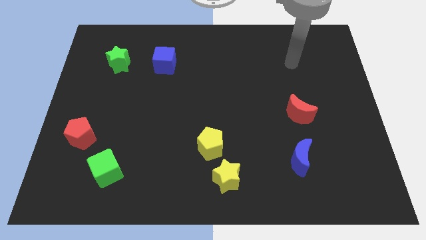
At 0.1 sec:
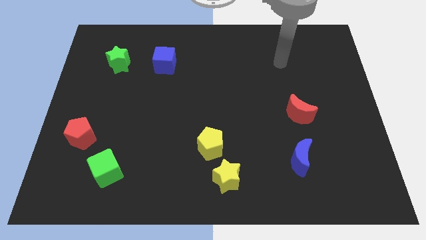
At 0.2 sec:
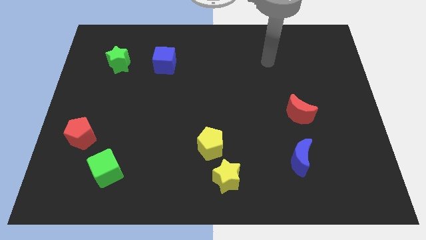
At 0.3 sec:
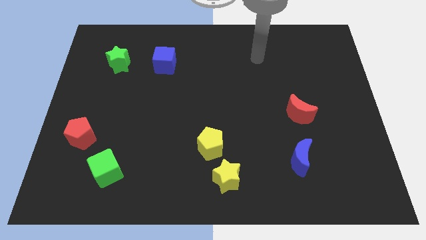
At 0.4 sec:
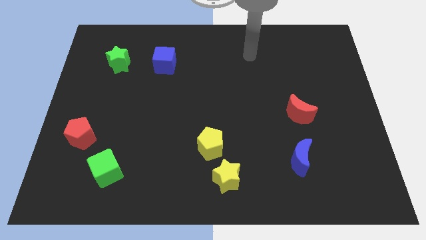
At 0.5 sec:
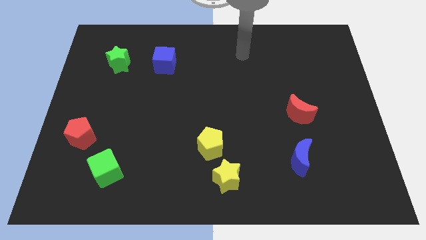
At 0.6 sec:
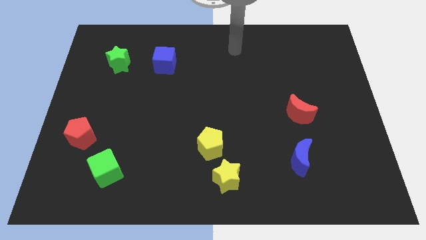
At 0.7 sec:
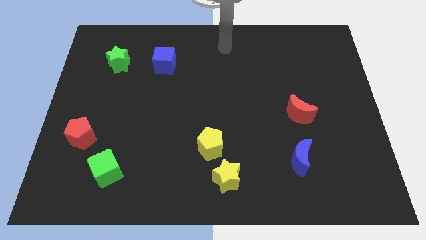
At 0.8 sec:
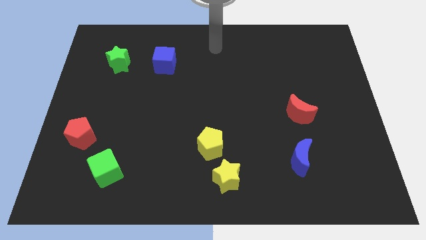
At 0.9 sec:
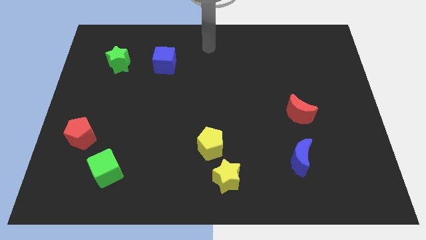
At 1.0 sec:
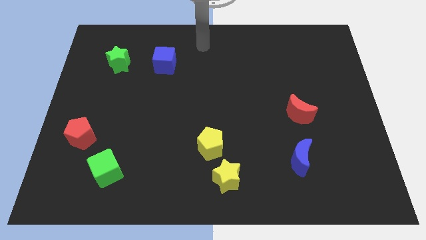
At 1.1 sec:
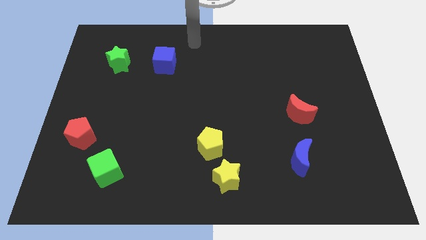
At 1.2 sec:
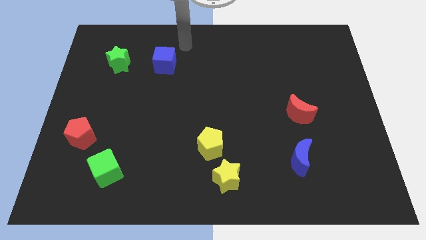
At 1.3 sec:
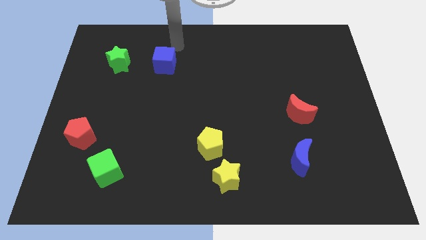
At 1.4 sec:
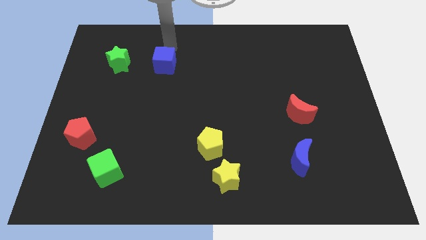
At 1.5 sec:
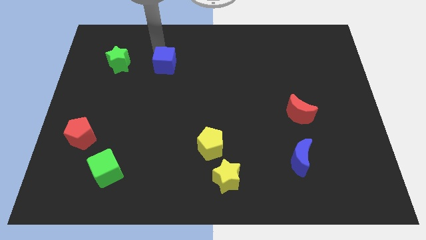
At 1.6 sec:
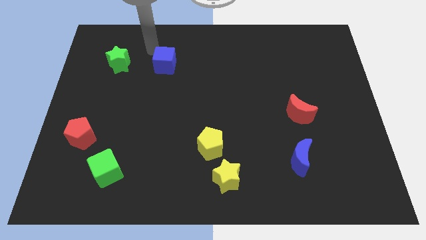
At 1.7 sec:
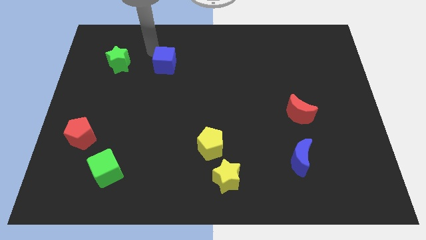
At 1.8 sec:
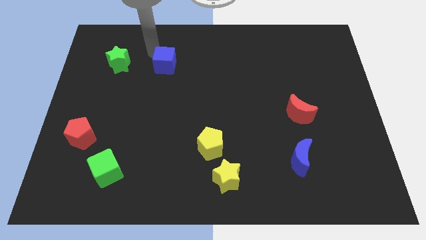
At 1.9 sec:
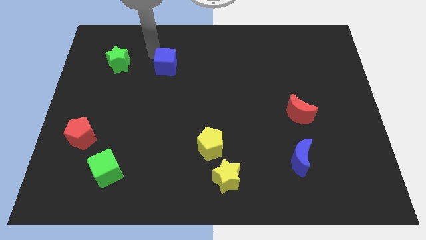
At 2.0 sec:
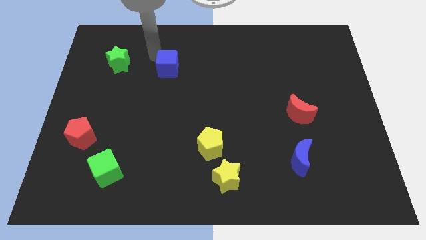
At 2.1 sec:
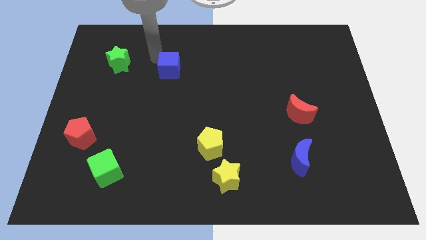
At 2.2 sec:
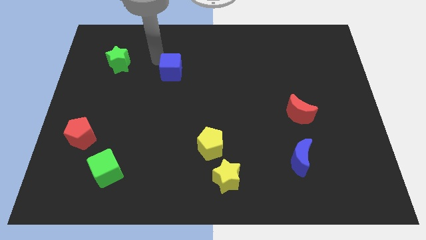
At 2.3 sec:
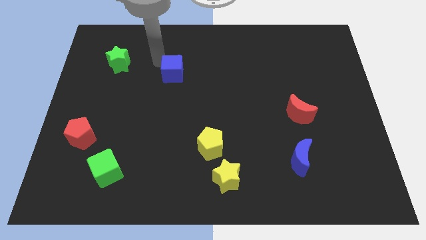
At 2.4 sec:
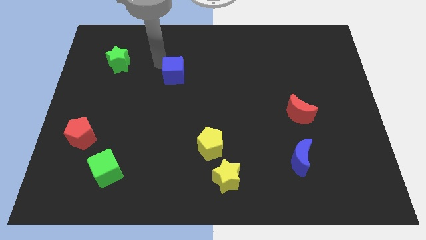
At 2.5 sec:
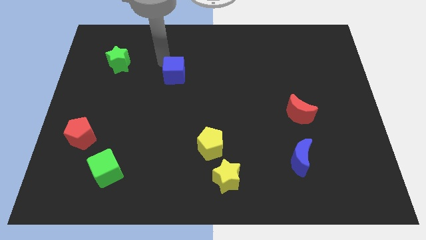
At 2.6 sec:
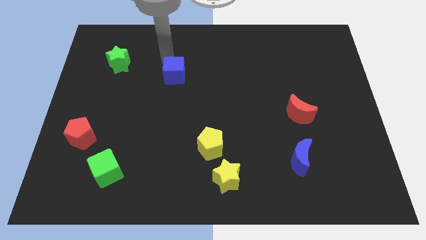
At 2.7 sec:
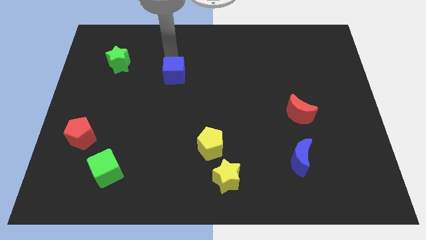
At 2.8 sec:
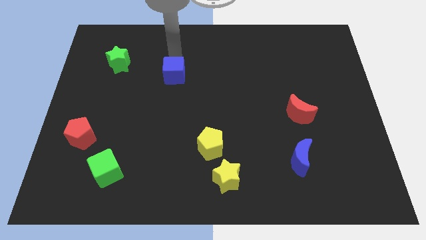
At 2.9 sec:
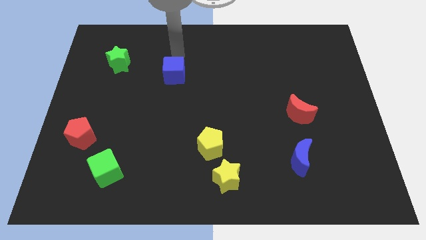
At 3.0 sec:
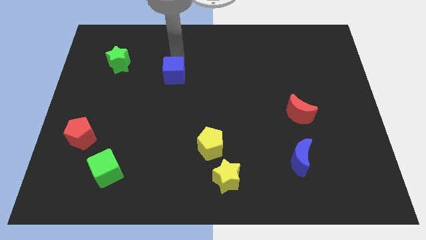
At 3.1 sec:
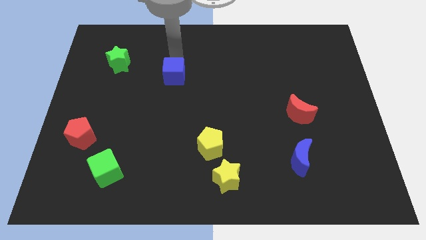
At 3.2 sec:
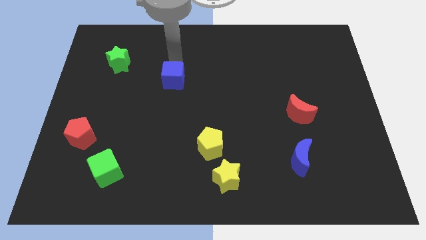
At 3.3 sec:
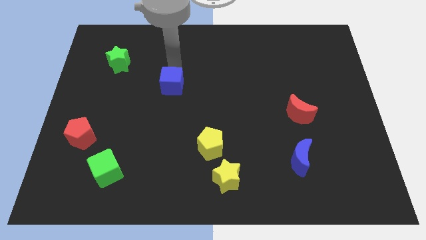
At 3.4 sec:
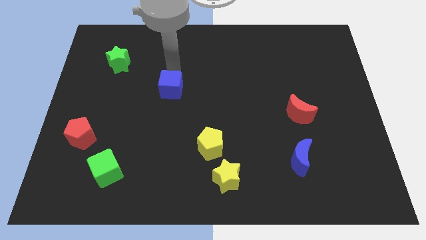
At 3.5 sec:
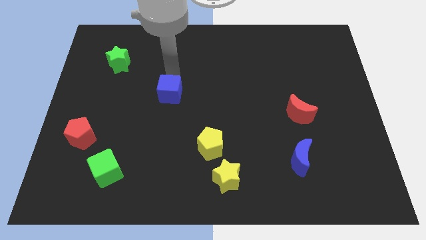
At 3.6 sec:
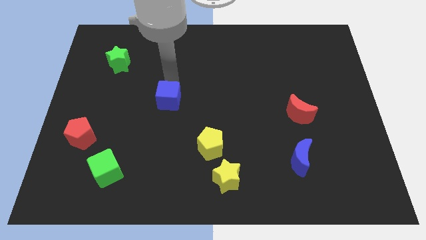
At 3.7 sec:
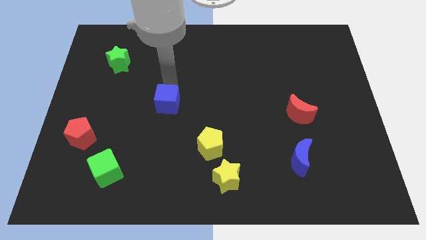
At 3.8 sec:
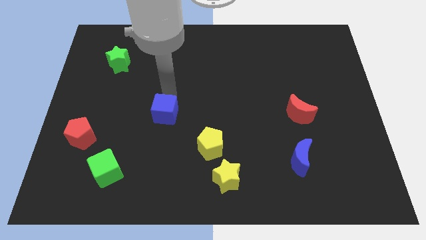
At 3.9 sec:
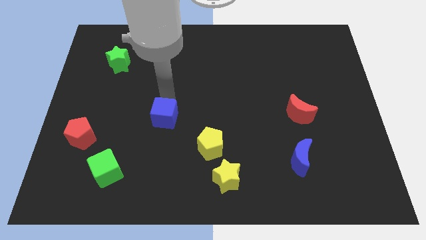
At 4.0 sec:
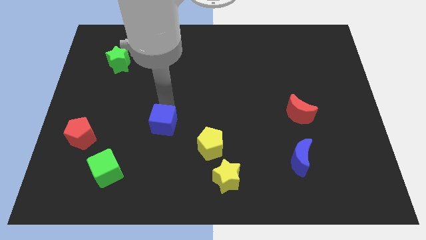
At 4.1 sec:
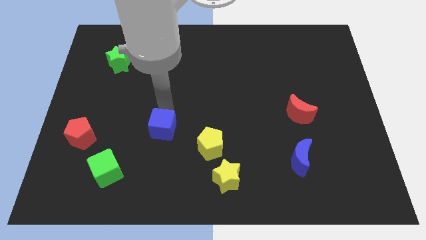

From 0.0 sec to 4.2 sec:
push the blue cube down

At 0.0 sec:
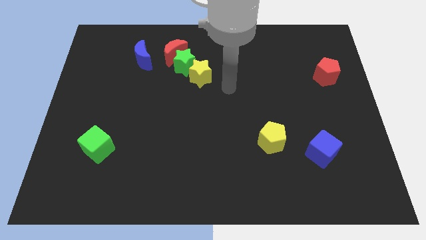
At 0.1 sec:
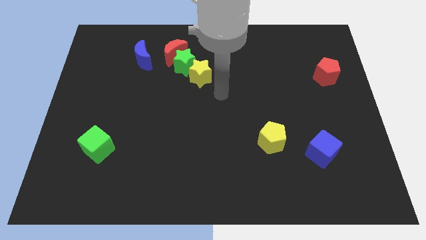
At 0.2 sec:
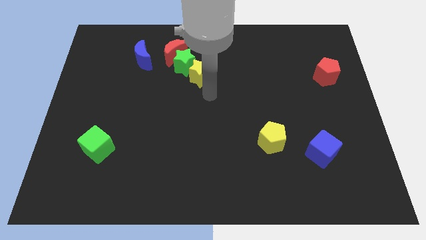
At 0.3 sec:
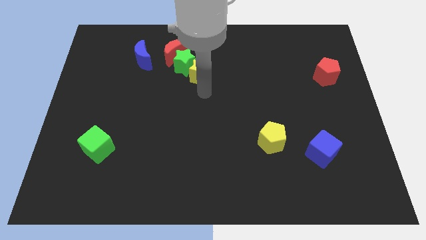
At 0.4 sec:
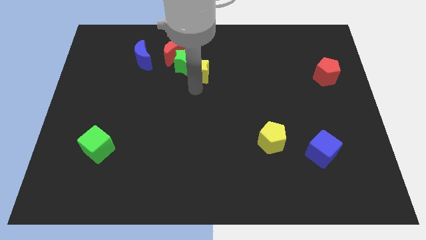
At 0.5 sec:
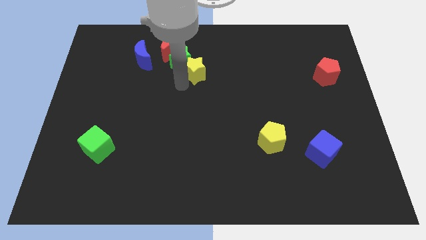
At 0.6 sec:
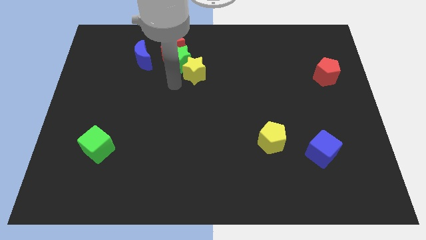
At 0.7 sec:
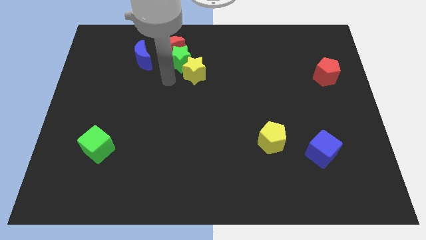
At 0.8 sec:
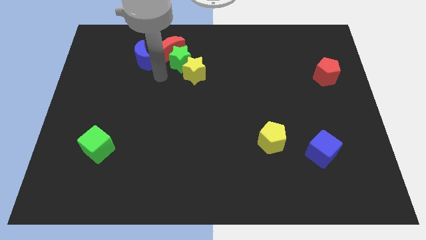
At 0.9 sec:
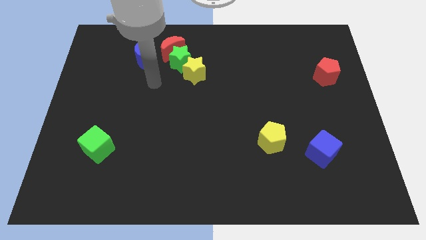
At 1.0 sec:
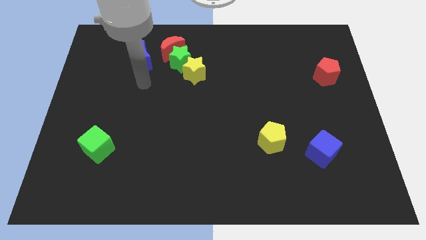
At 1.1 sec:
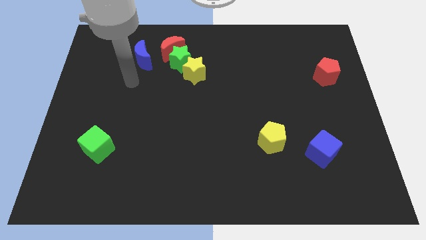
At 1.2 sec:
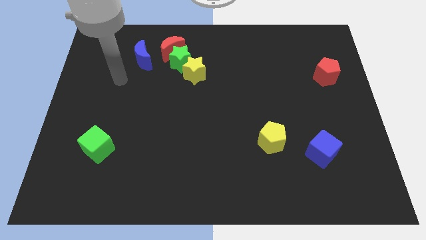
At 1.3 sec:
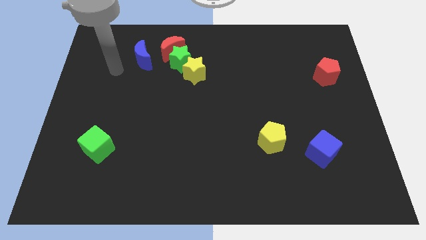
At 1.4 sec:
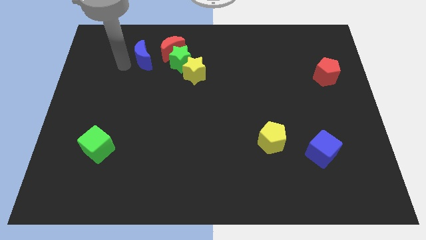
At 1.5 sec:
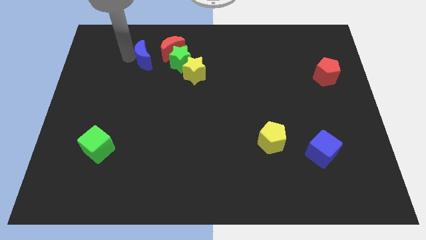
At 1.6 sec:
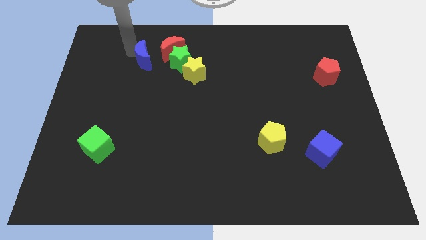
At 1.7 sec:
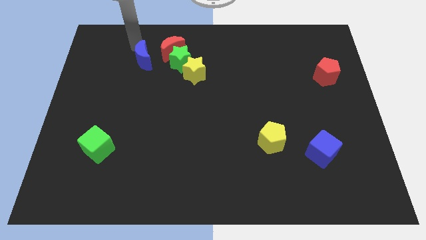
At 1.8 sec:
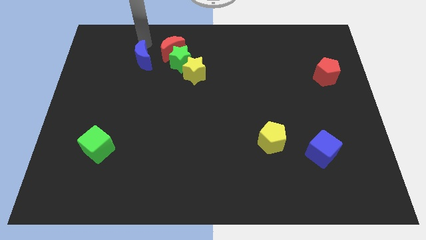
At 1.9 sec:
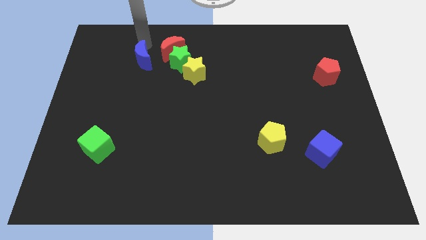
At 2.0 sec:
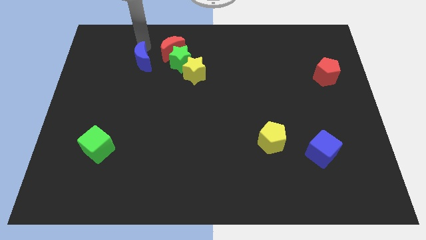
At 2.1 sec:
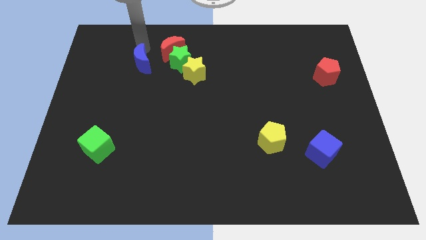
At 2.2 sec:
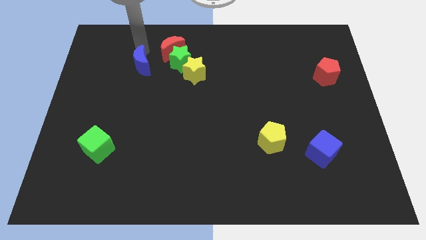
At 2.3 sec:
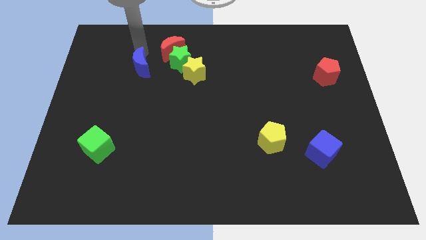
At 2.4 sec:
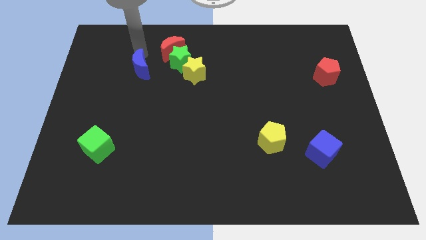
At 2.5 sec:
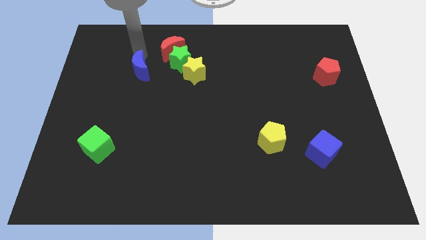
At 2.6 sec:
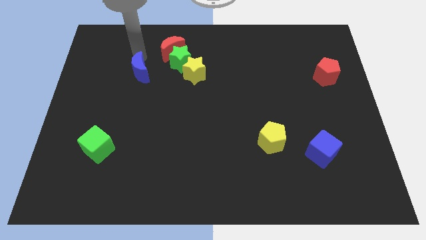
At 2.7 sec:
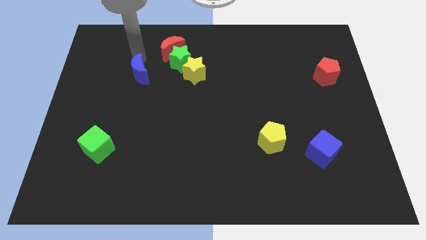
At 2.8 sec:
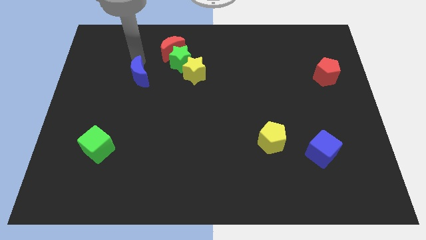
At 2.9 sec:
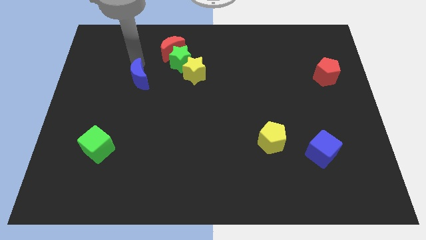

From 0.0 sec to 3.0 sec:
slightly slide the blue moon down

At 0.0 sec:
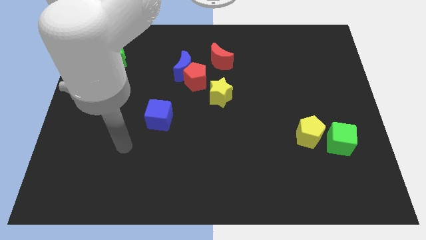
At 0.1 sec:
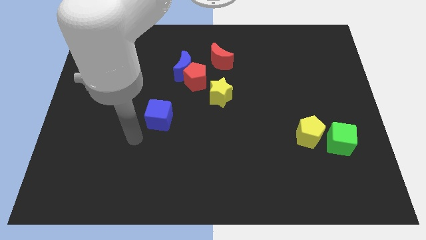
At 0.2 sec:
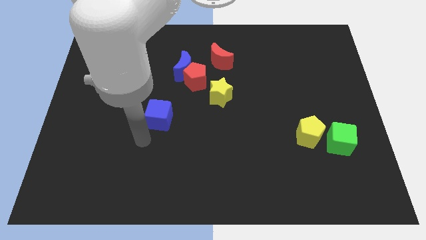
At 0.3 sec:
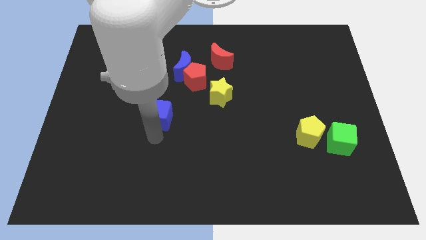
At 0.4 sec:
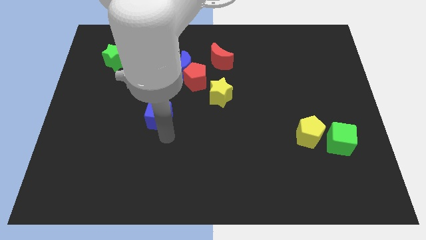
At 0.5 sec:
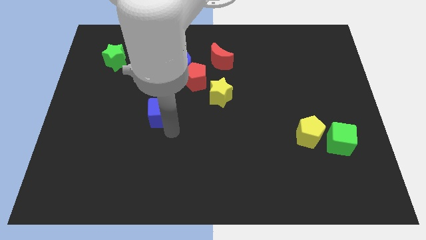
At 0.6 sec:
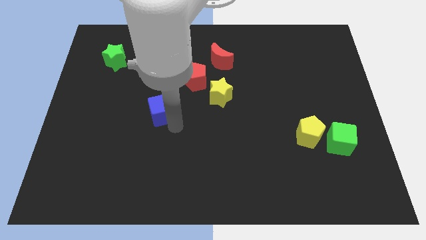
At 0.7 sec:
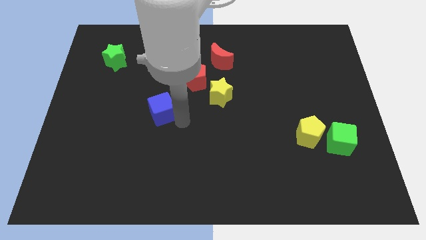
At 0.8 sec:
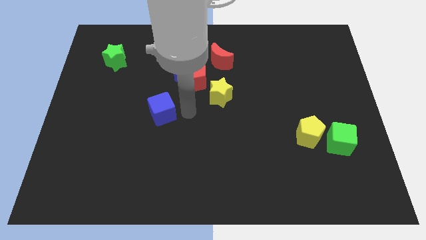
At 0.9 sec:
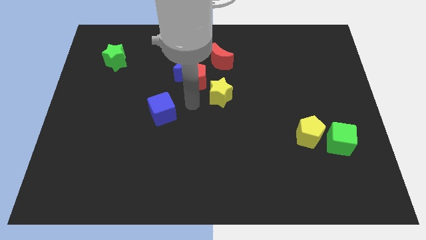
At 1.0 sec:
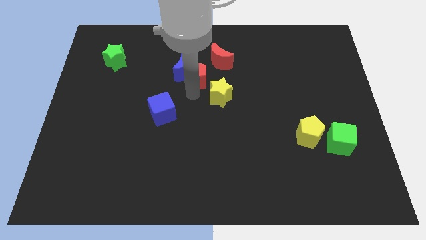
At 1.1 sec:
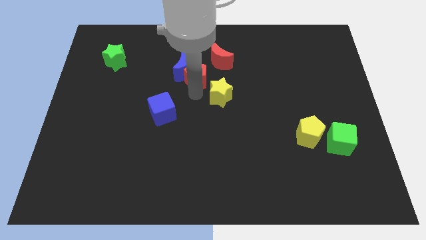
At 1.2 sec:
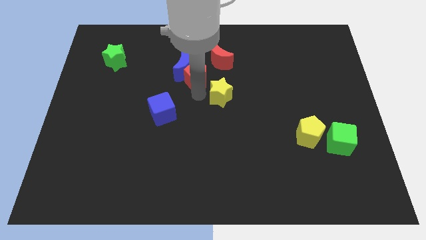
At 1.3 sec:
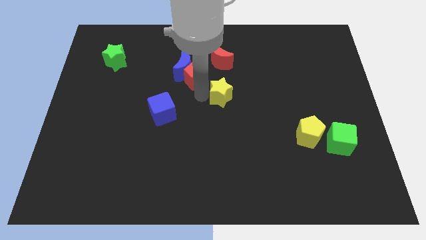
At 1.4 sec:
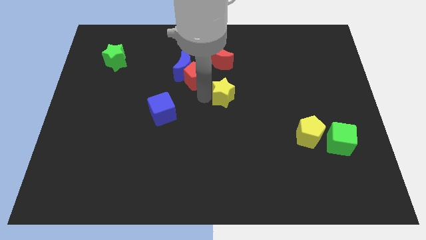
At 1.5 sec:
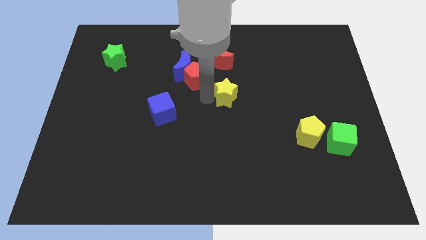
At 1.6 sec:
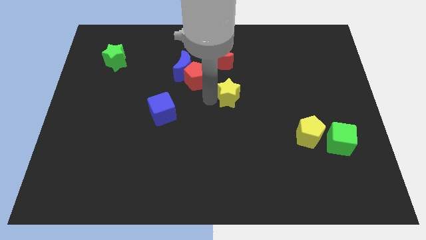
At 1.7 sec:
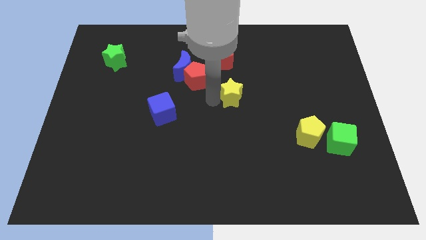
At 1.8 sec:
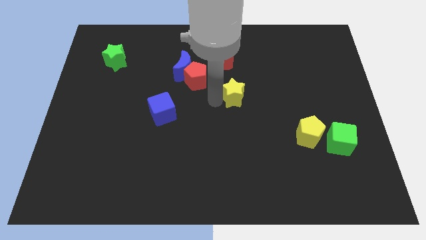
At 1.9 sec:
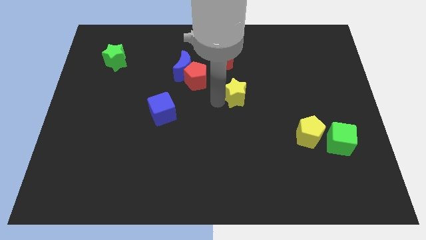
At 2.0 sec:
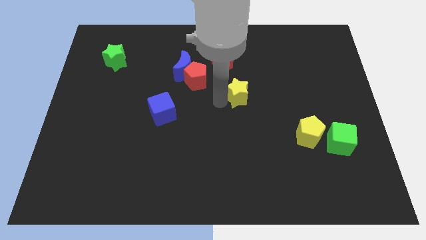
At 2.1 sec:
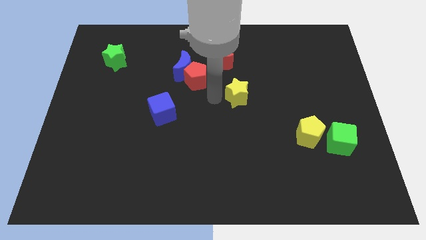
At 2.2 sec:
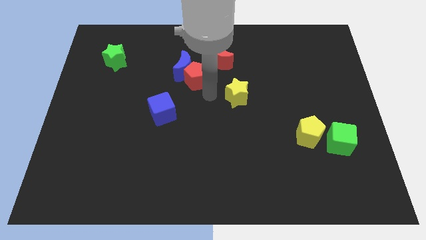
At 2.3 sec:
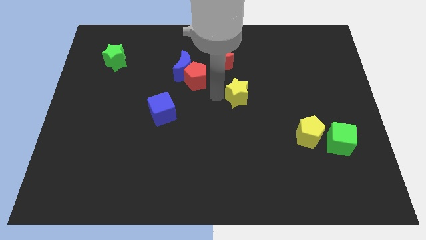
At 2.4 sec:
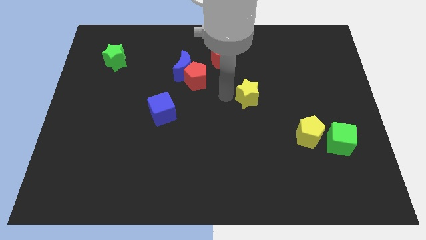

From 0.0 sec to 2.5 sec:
slightly slide the yellow star right
